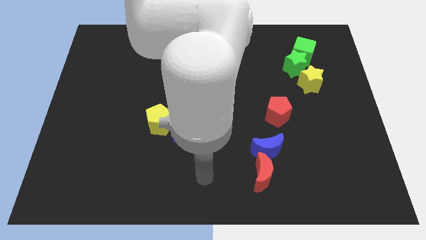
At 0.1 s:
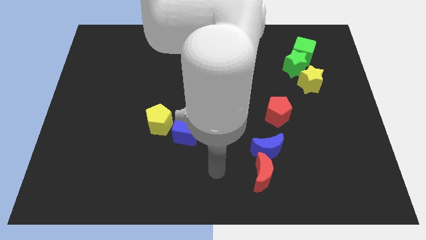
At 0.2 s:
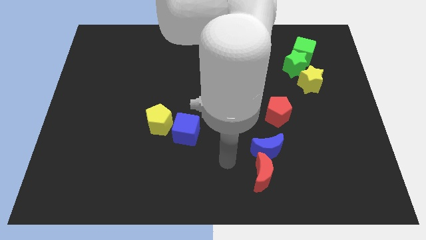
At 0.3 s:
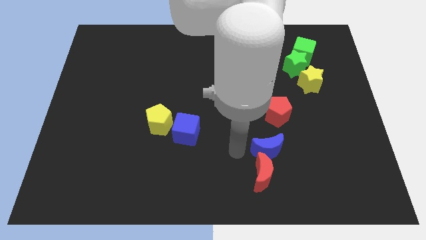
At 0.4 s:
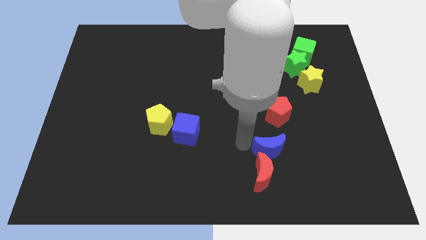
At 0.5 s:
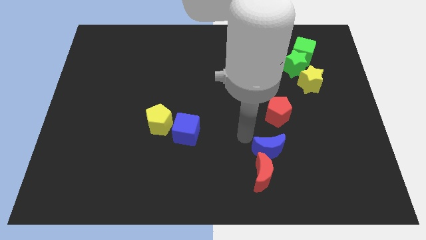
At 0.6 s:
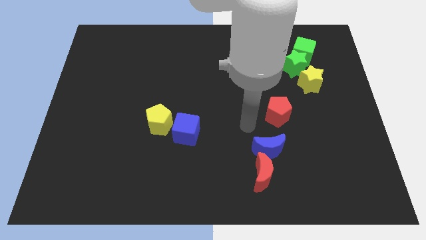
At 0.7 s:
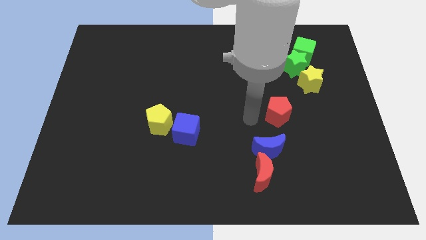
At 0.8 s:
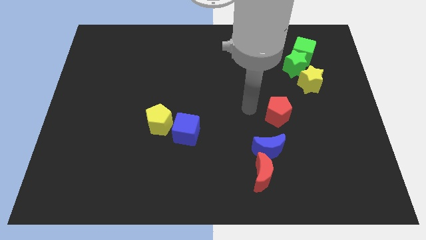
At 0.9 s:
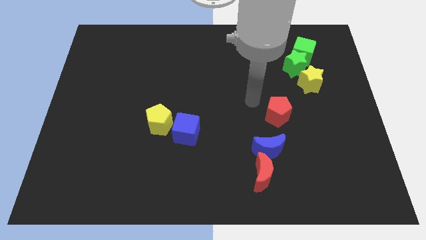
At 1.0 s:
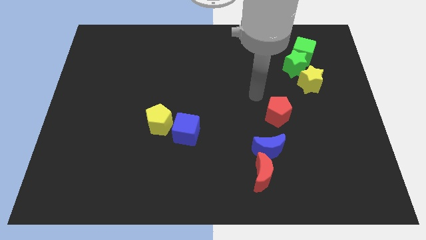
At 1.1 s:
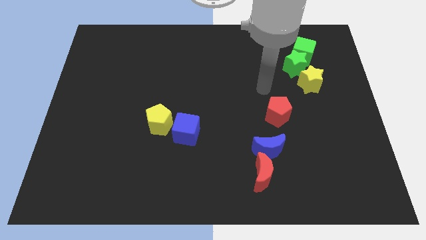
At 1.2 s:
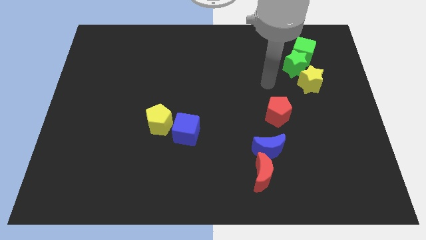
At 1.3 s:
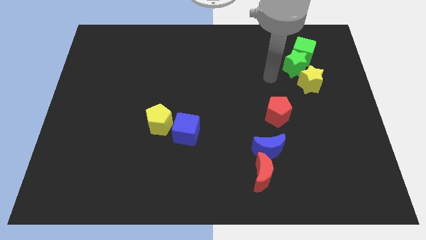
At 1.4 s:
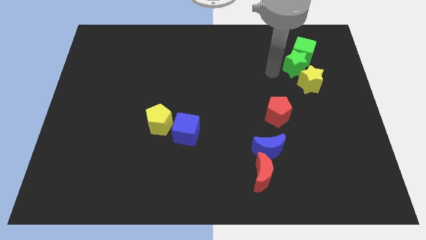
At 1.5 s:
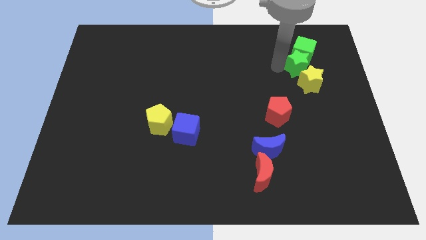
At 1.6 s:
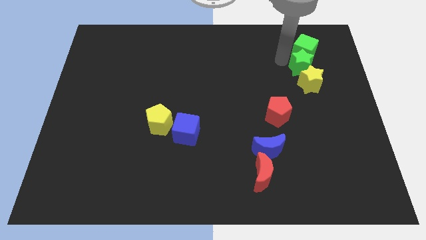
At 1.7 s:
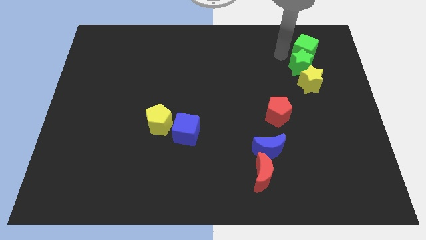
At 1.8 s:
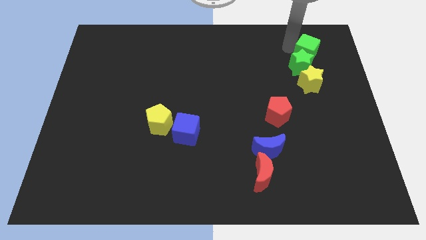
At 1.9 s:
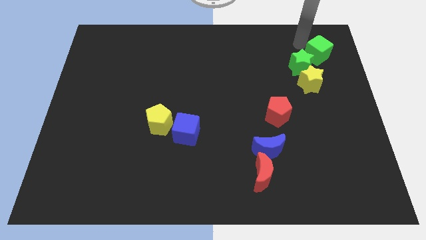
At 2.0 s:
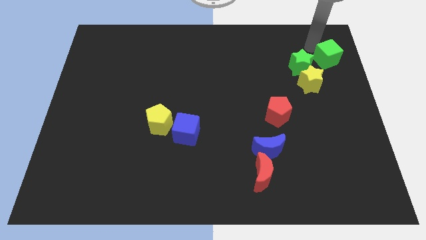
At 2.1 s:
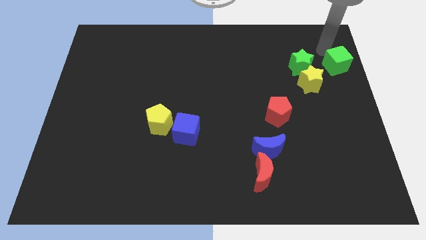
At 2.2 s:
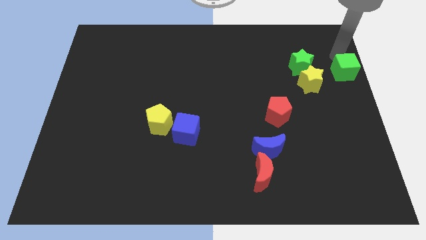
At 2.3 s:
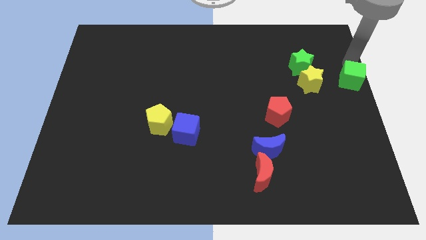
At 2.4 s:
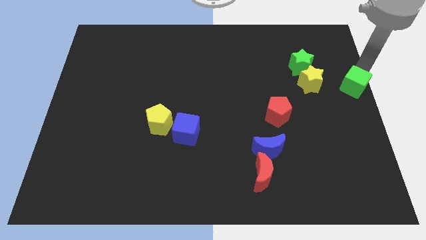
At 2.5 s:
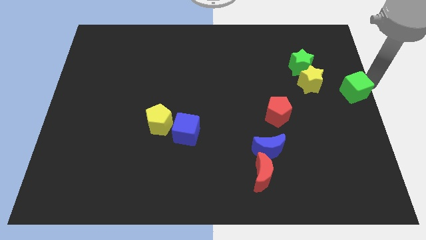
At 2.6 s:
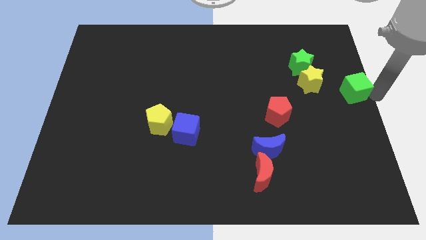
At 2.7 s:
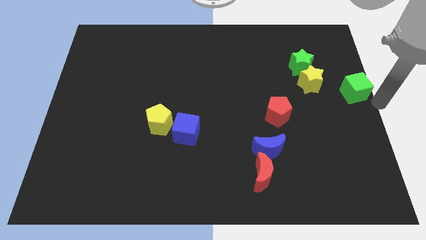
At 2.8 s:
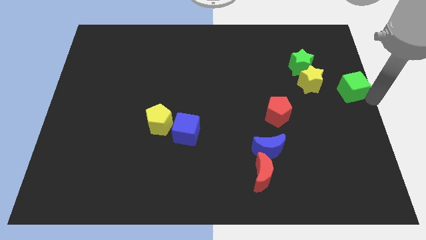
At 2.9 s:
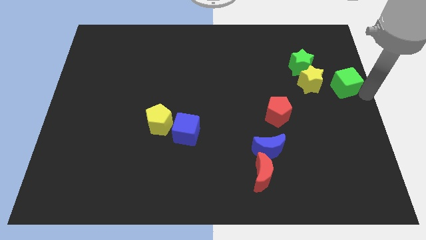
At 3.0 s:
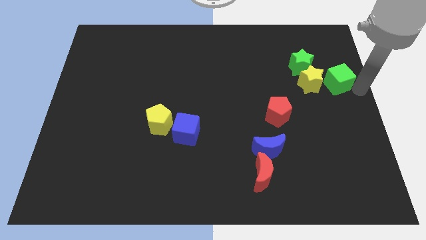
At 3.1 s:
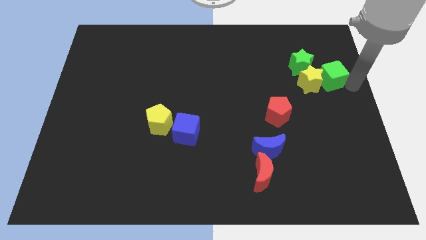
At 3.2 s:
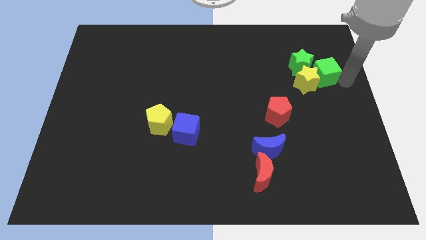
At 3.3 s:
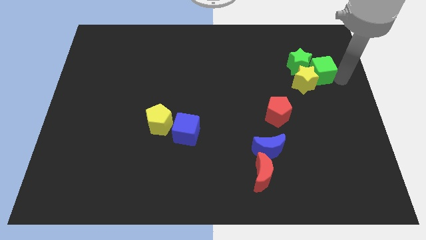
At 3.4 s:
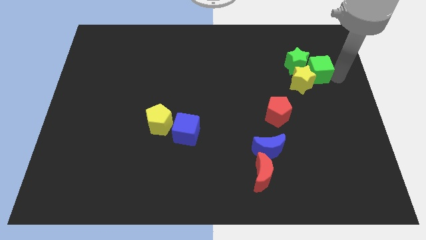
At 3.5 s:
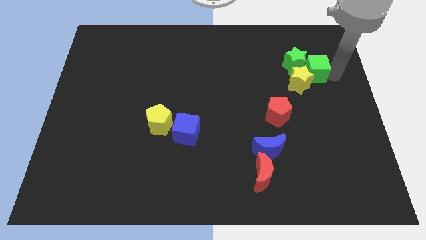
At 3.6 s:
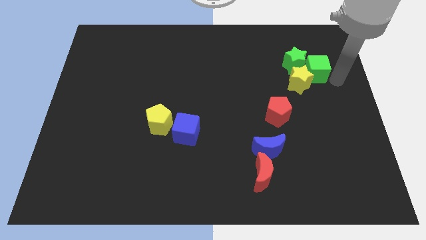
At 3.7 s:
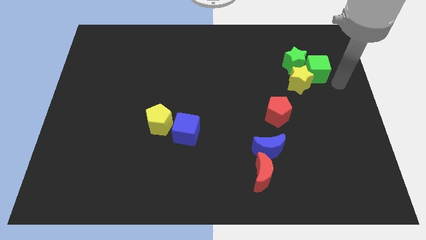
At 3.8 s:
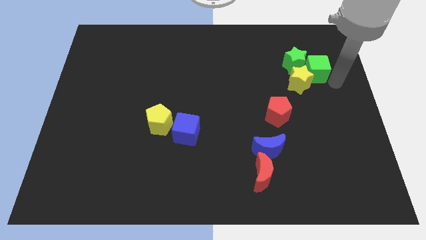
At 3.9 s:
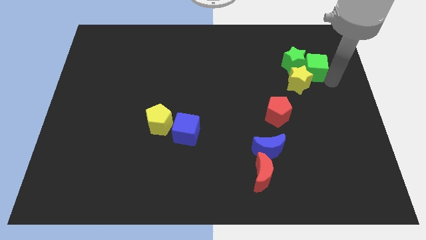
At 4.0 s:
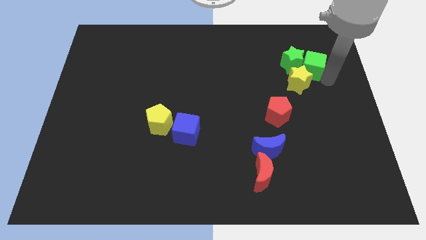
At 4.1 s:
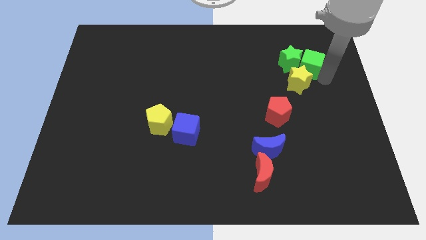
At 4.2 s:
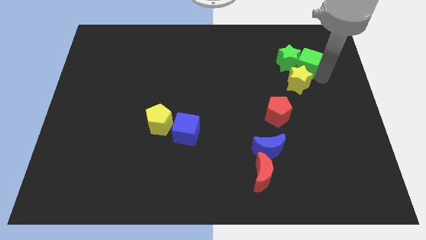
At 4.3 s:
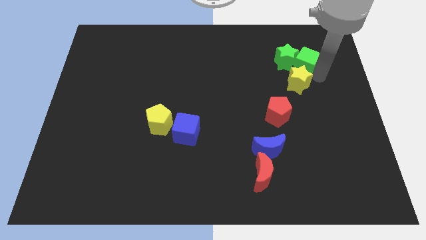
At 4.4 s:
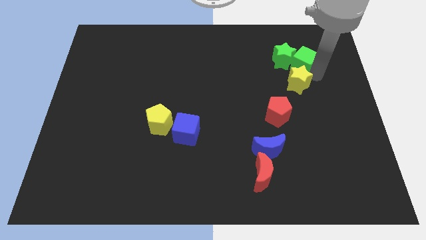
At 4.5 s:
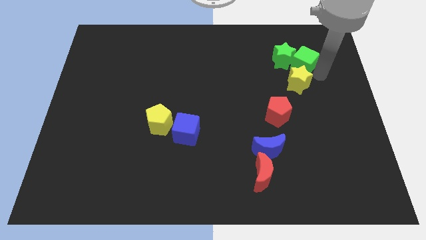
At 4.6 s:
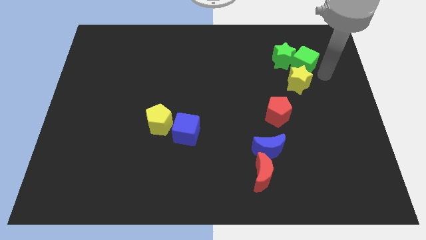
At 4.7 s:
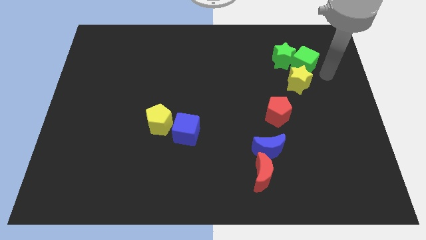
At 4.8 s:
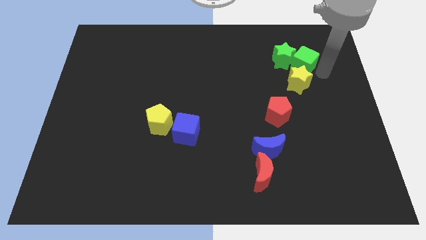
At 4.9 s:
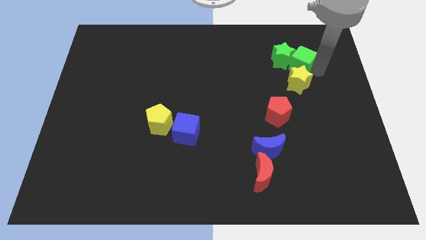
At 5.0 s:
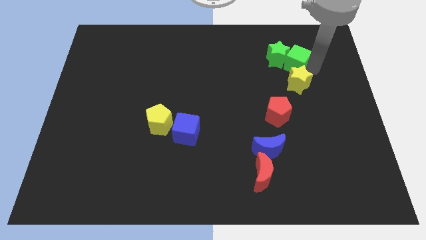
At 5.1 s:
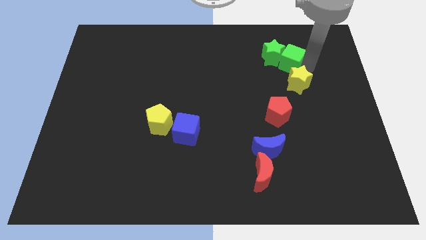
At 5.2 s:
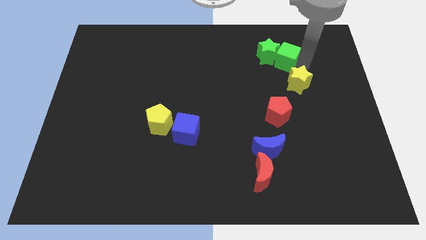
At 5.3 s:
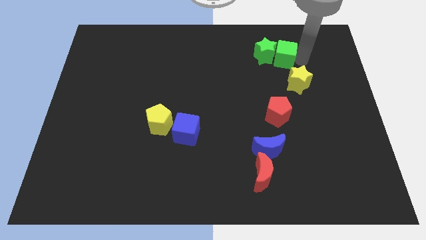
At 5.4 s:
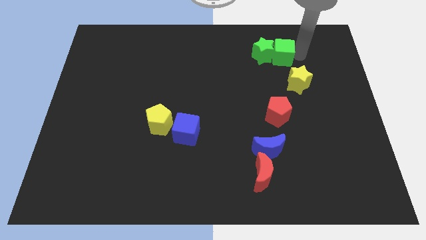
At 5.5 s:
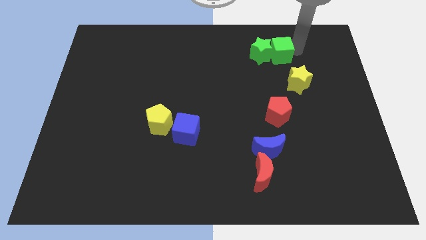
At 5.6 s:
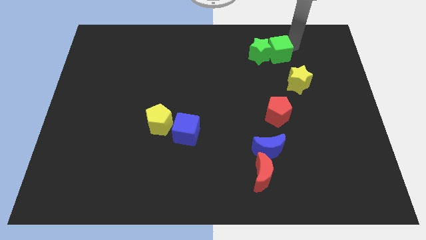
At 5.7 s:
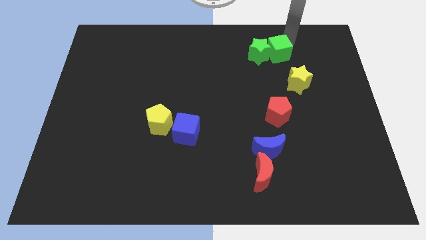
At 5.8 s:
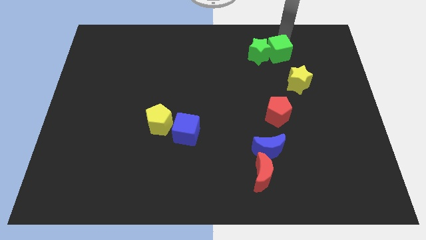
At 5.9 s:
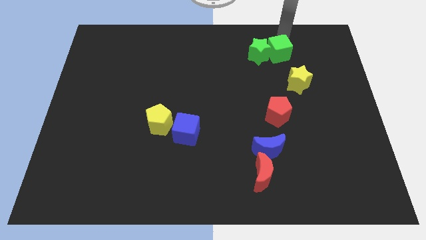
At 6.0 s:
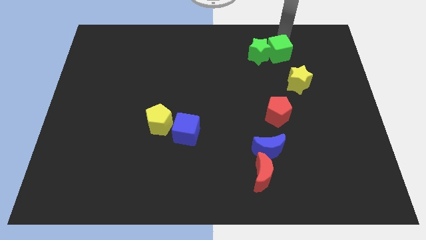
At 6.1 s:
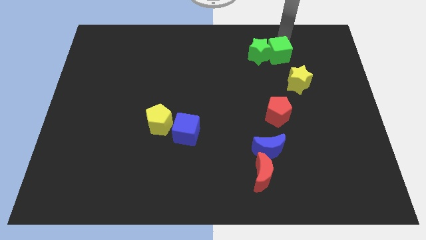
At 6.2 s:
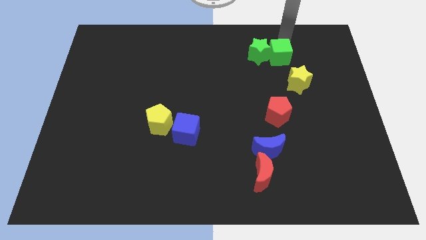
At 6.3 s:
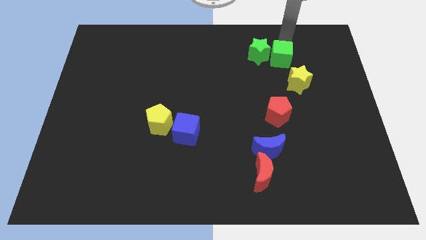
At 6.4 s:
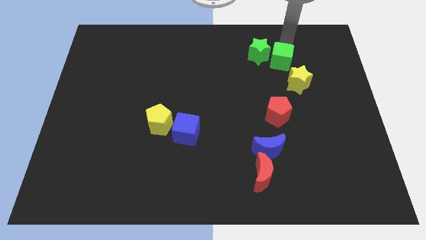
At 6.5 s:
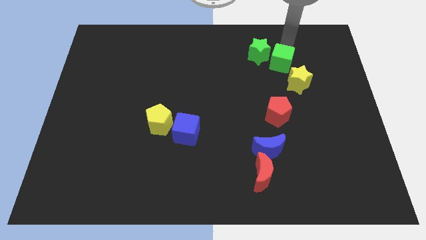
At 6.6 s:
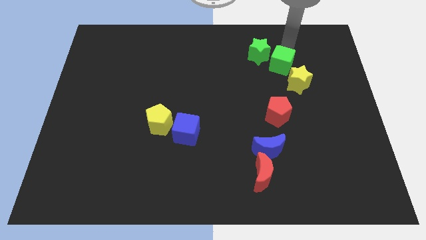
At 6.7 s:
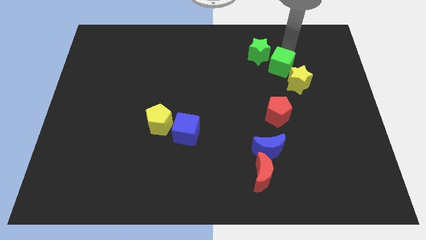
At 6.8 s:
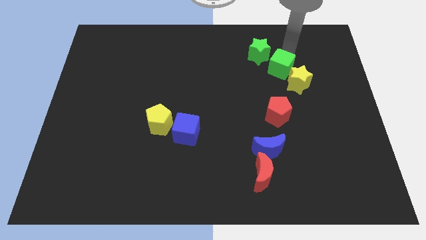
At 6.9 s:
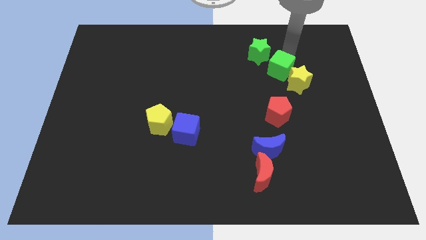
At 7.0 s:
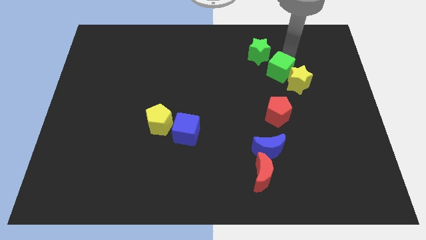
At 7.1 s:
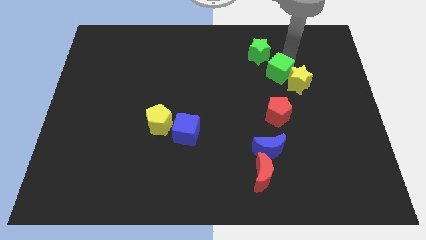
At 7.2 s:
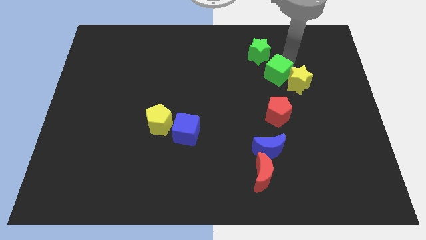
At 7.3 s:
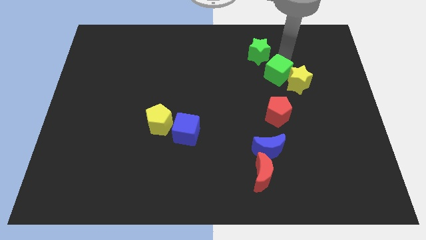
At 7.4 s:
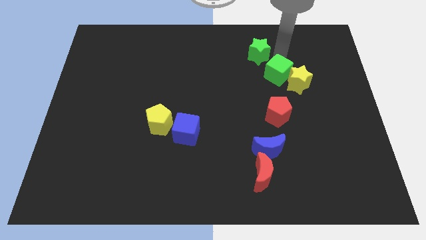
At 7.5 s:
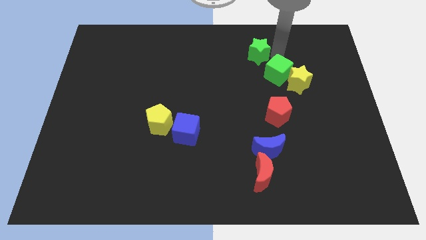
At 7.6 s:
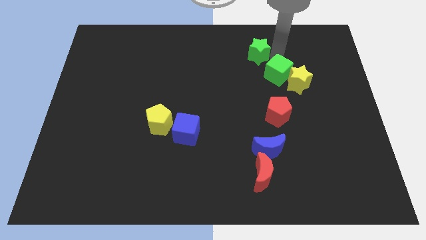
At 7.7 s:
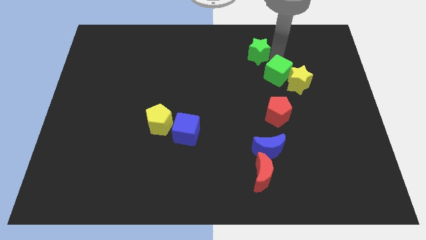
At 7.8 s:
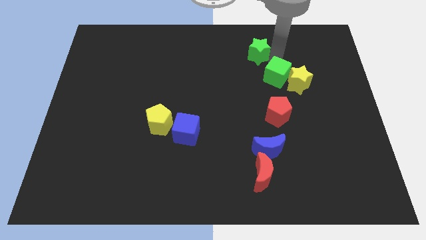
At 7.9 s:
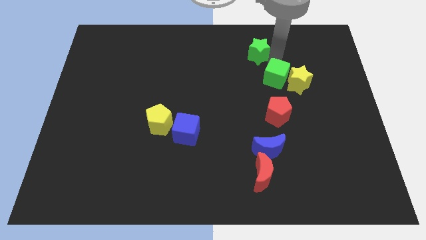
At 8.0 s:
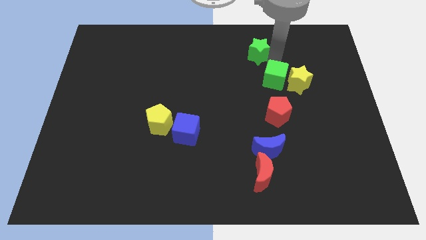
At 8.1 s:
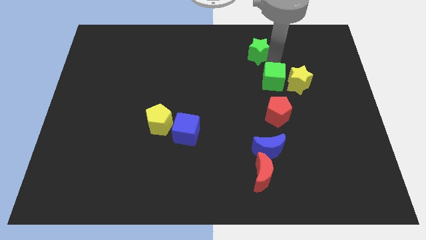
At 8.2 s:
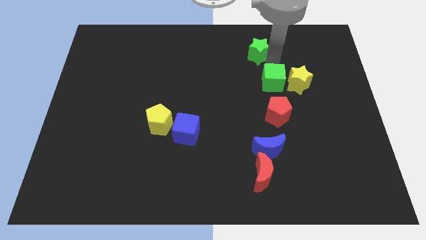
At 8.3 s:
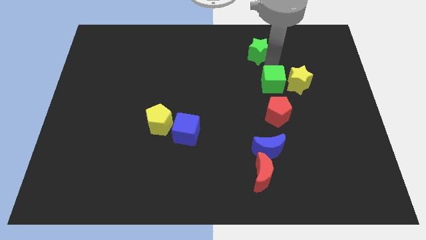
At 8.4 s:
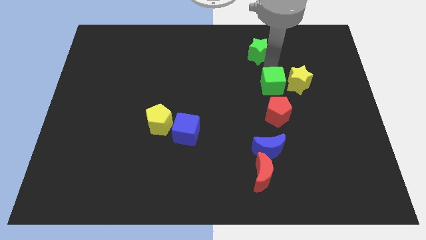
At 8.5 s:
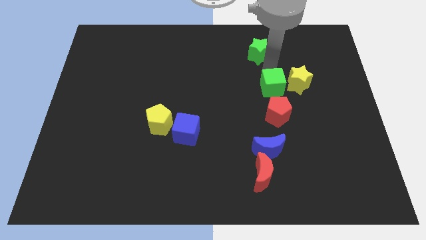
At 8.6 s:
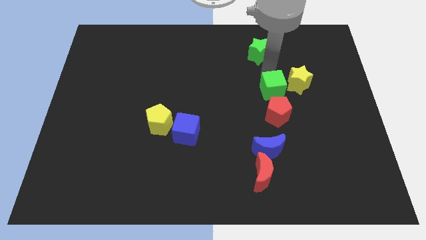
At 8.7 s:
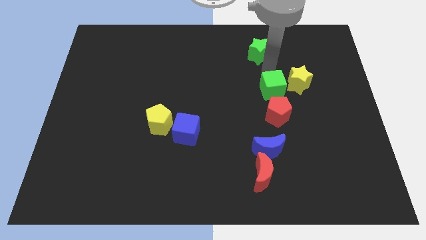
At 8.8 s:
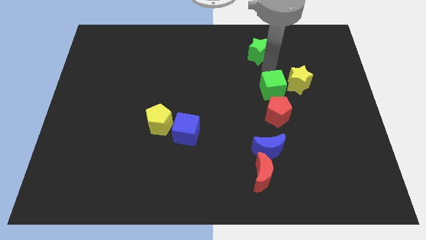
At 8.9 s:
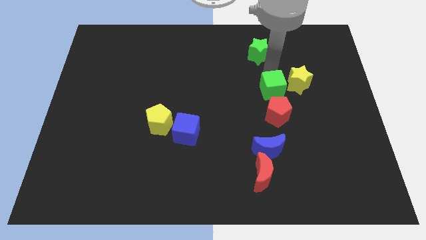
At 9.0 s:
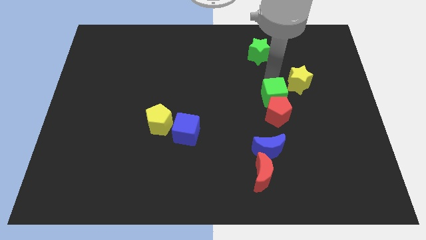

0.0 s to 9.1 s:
slide the green cube towards the red pentagon
